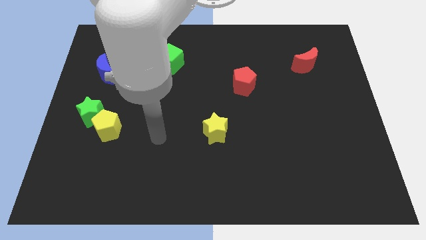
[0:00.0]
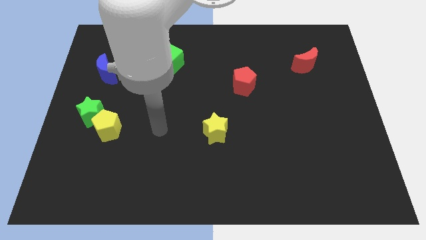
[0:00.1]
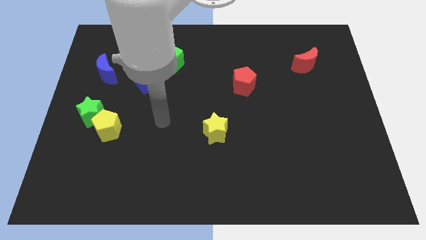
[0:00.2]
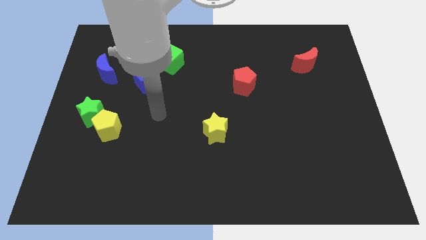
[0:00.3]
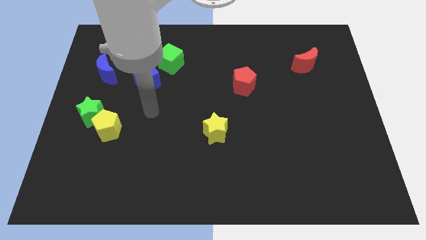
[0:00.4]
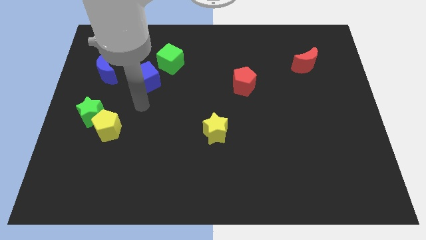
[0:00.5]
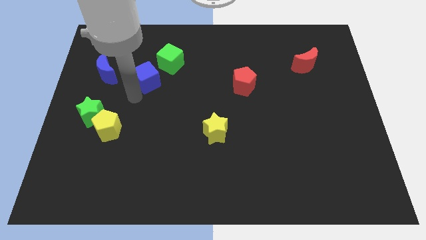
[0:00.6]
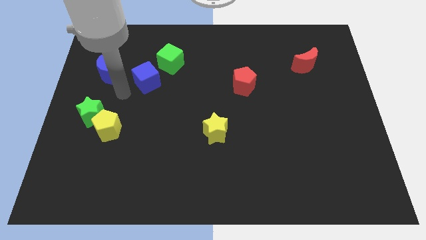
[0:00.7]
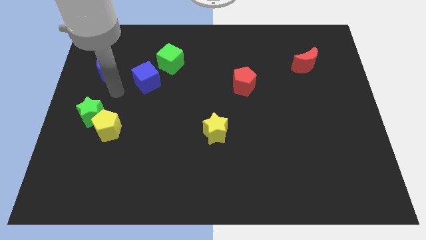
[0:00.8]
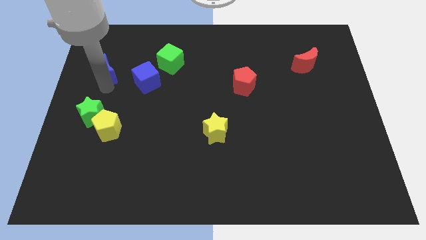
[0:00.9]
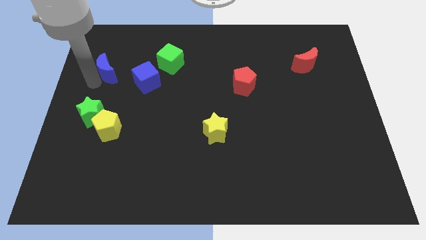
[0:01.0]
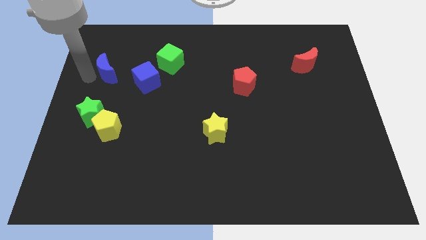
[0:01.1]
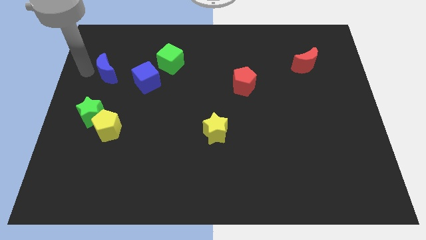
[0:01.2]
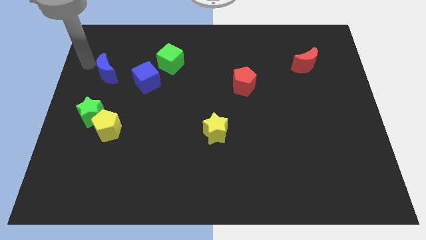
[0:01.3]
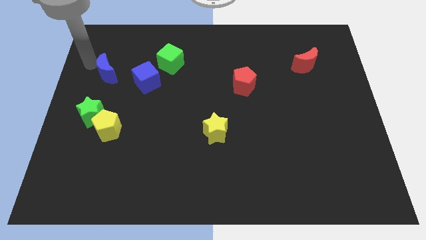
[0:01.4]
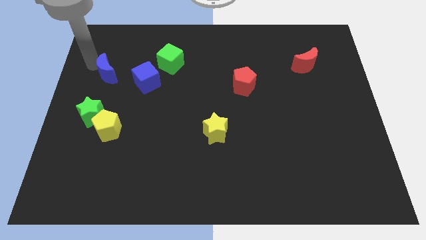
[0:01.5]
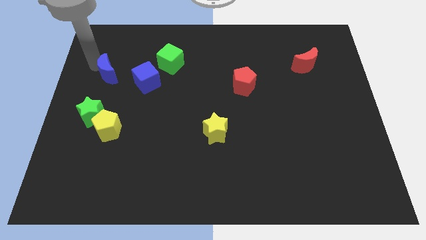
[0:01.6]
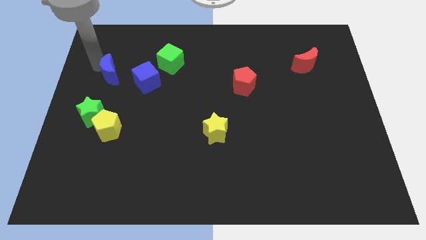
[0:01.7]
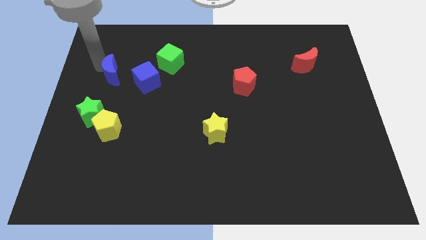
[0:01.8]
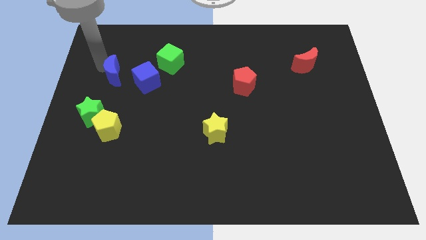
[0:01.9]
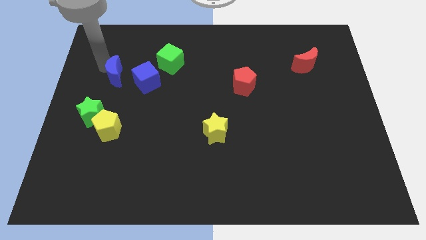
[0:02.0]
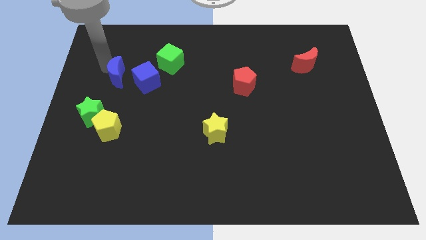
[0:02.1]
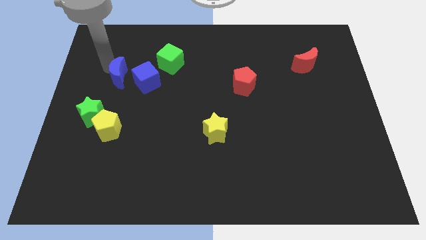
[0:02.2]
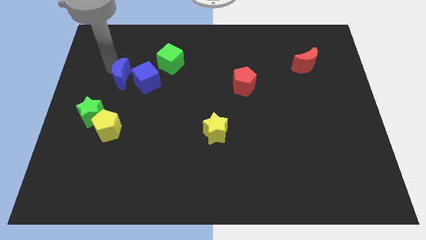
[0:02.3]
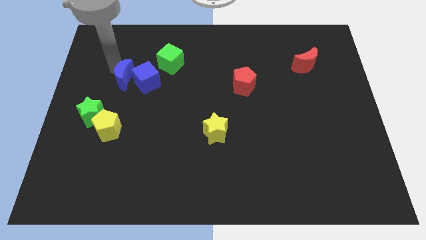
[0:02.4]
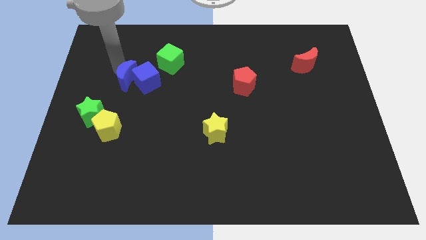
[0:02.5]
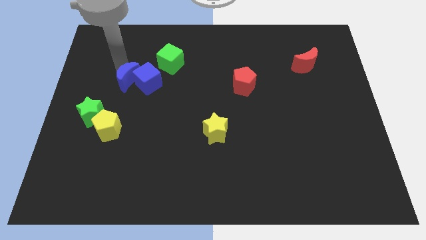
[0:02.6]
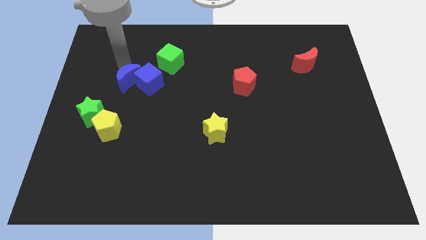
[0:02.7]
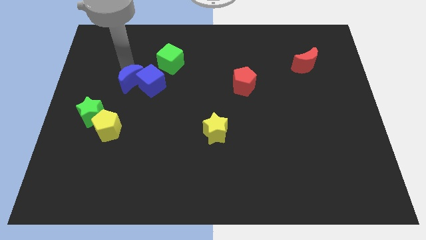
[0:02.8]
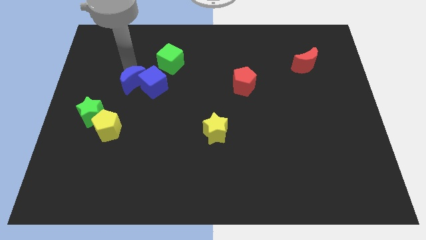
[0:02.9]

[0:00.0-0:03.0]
slightly push the blue moon downwards and to the right

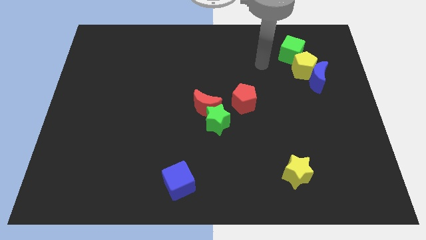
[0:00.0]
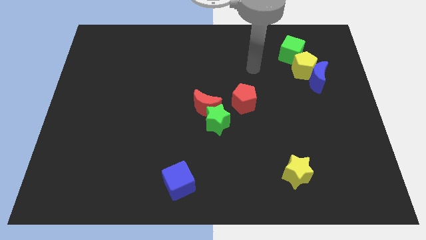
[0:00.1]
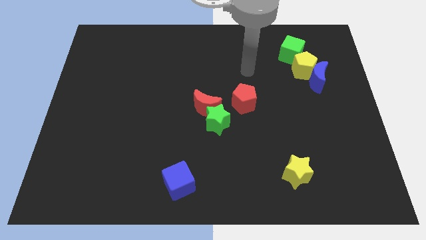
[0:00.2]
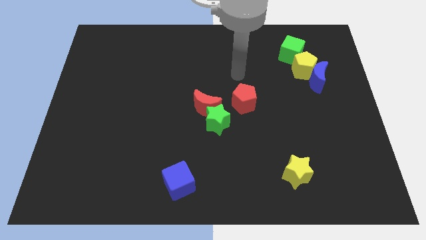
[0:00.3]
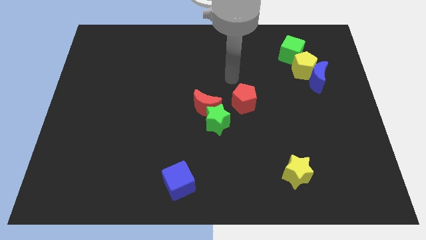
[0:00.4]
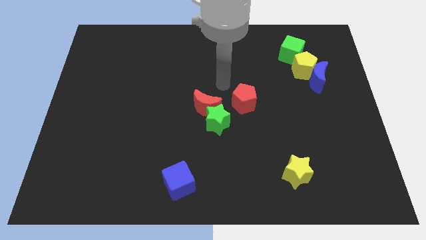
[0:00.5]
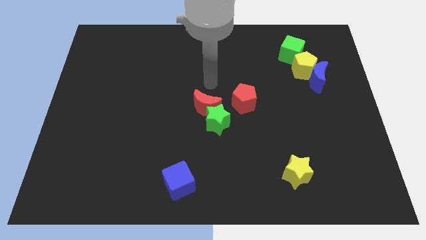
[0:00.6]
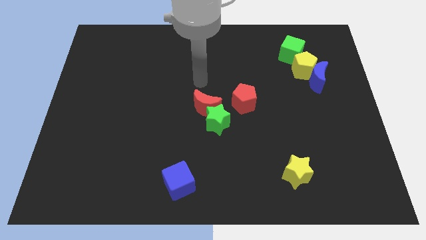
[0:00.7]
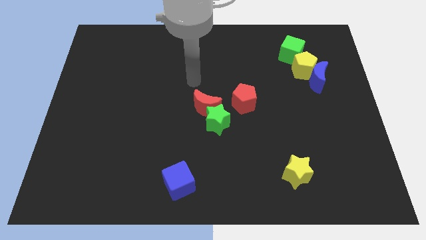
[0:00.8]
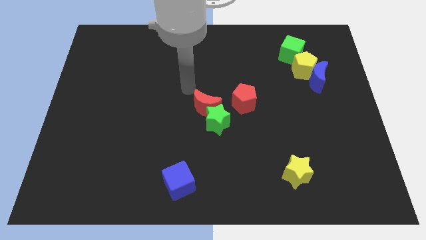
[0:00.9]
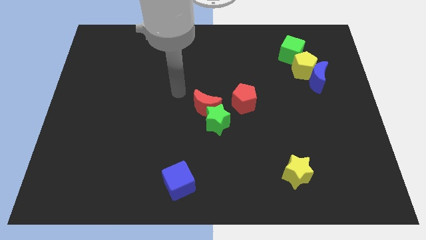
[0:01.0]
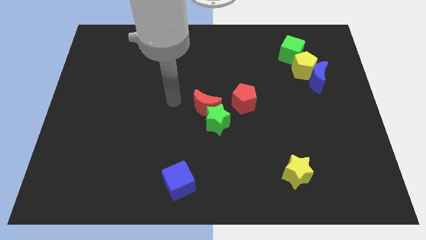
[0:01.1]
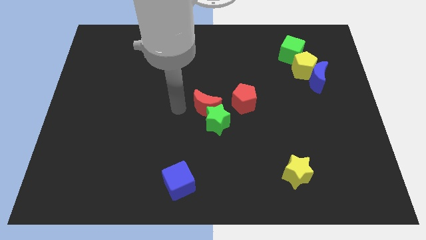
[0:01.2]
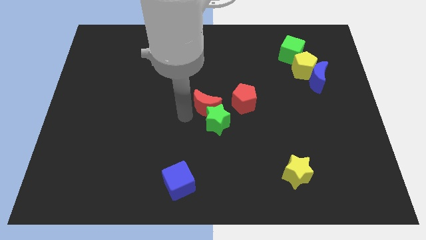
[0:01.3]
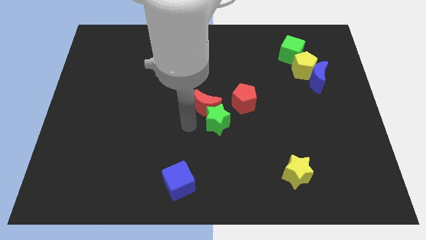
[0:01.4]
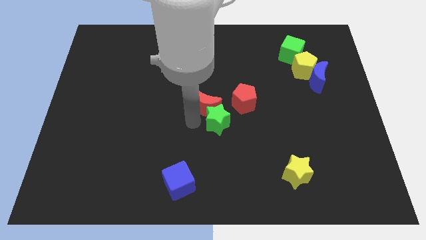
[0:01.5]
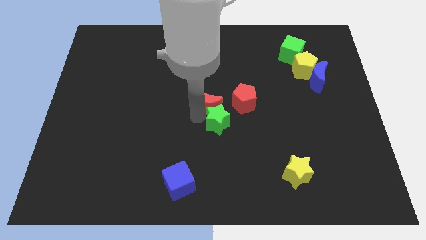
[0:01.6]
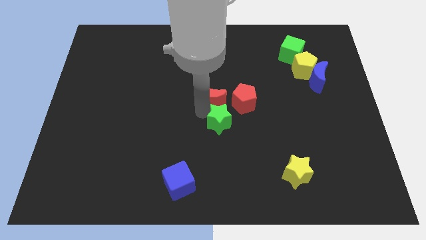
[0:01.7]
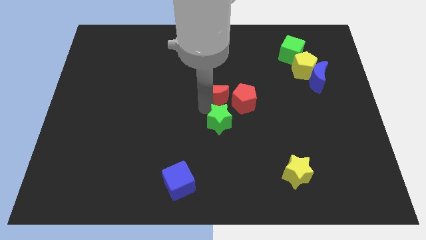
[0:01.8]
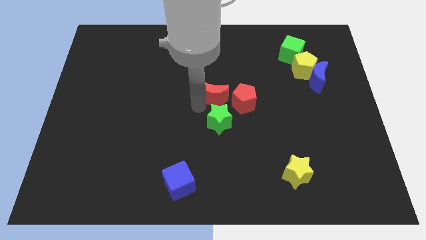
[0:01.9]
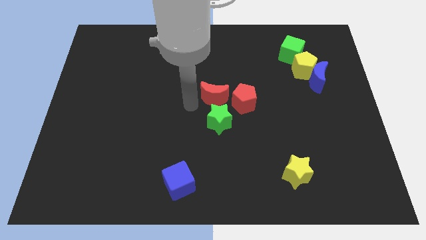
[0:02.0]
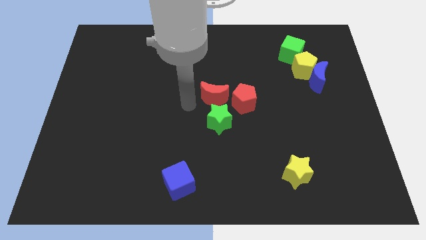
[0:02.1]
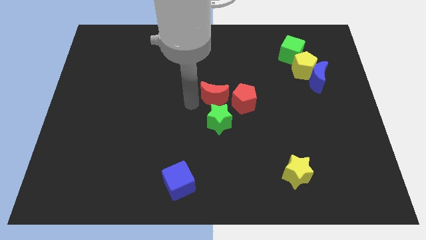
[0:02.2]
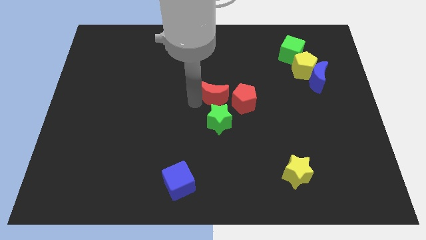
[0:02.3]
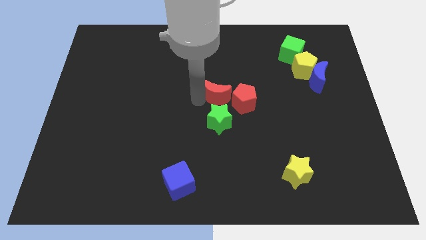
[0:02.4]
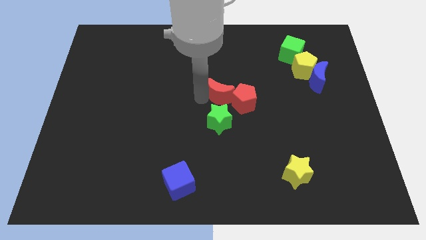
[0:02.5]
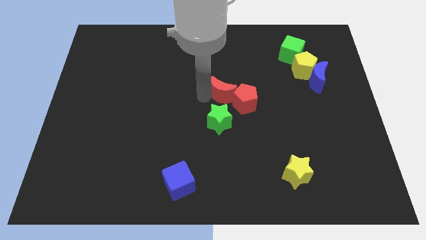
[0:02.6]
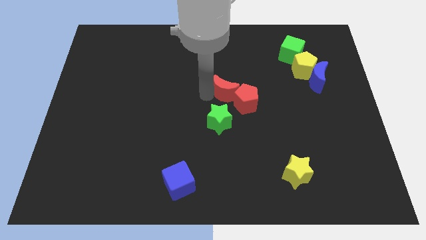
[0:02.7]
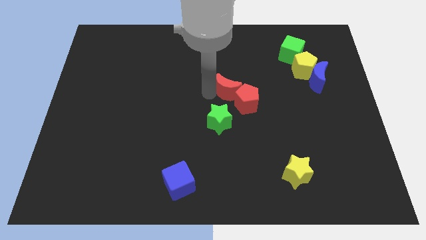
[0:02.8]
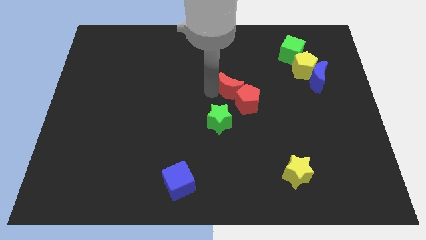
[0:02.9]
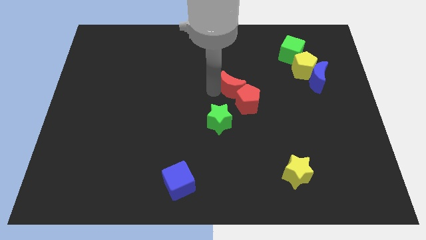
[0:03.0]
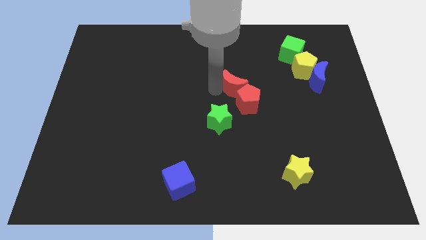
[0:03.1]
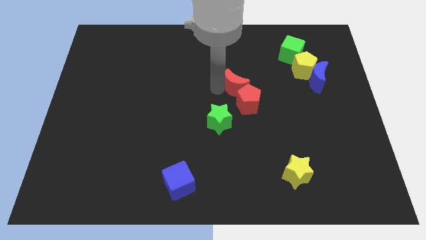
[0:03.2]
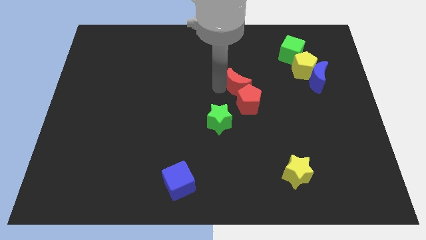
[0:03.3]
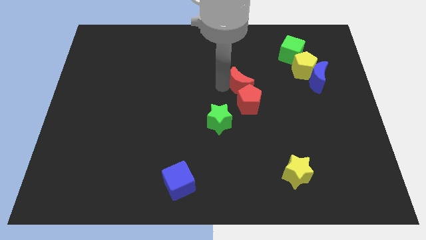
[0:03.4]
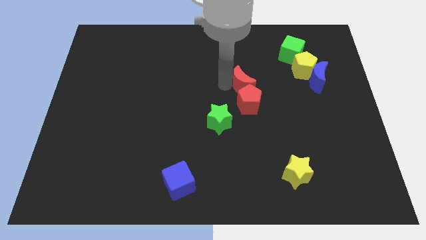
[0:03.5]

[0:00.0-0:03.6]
slightly slide the red moon to the right

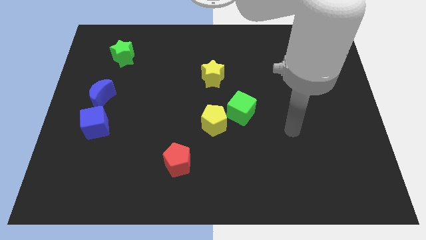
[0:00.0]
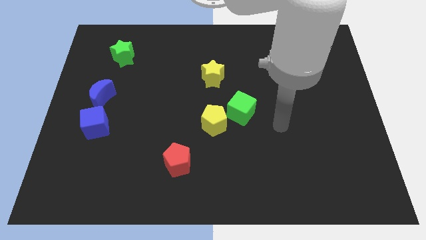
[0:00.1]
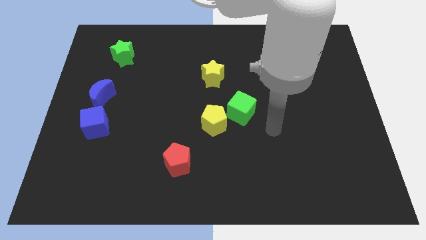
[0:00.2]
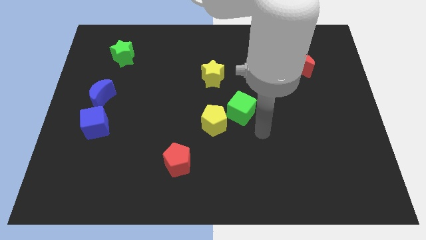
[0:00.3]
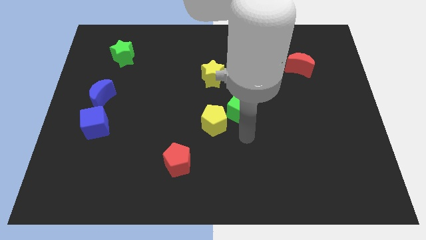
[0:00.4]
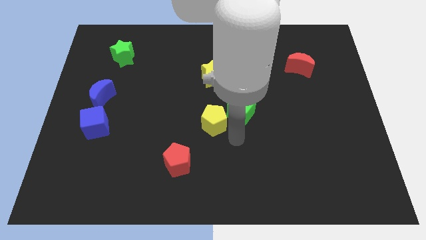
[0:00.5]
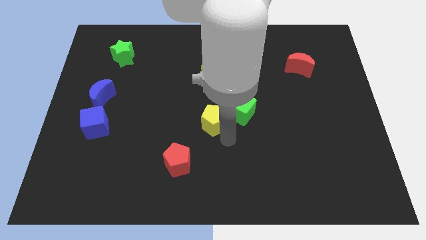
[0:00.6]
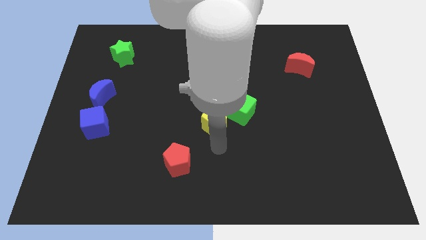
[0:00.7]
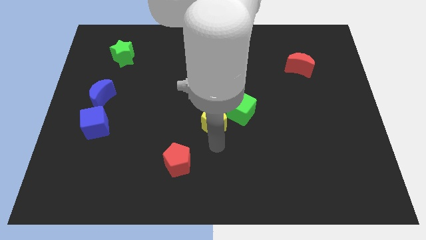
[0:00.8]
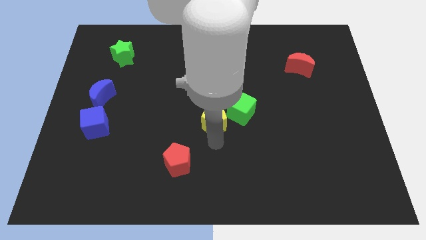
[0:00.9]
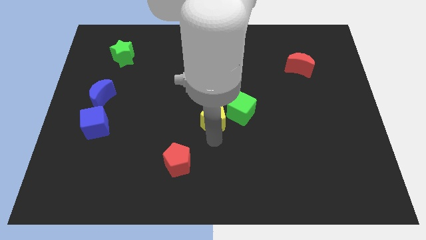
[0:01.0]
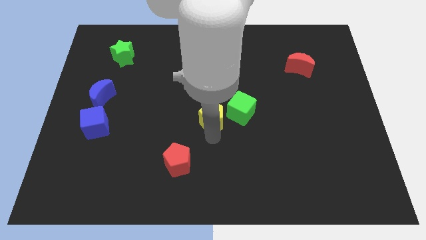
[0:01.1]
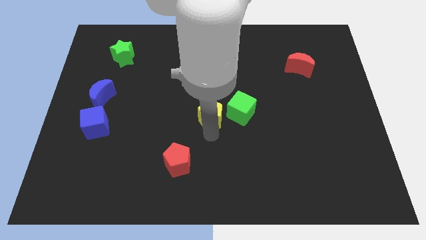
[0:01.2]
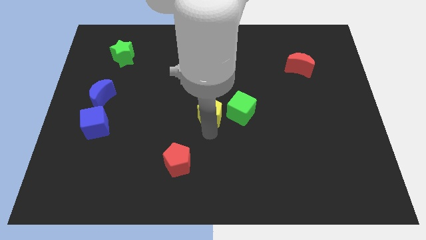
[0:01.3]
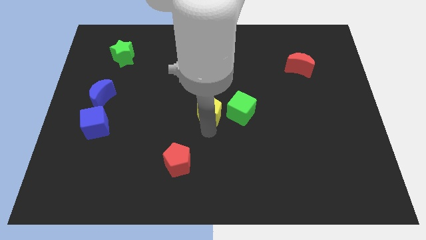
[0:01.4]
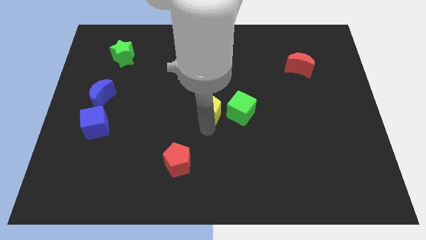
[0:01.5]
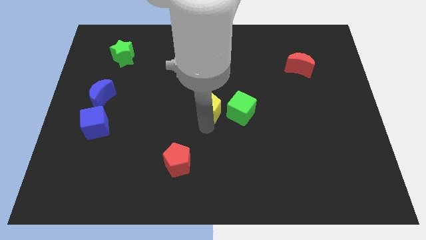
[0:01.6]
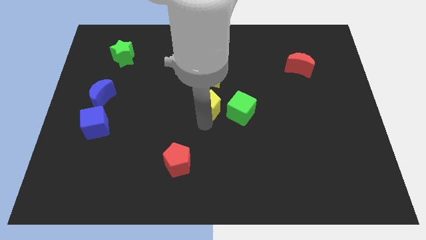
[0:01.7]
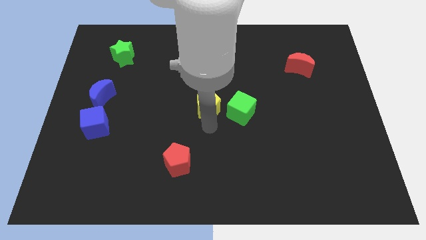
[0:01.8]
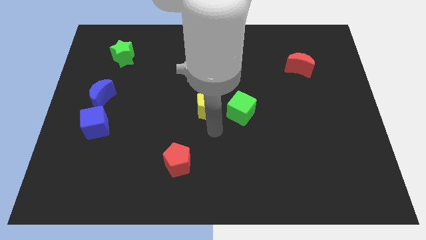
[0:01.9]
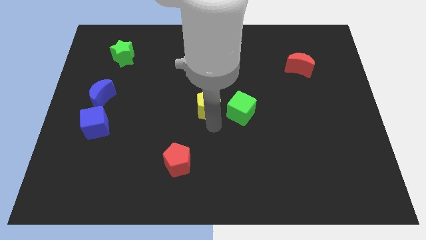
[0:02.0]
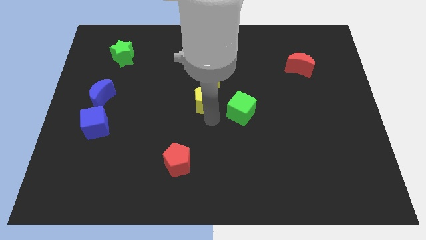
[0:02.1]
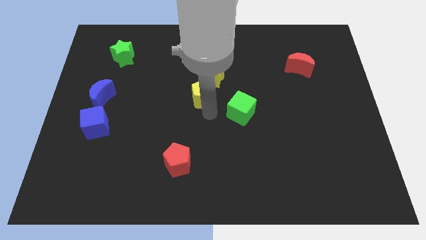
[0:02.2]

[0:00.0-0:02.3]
push the yellow pentagon somewhat upwards
